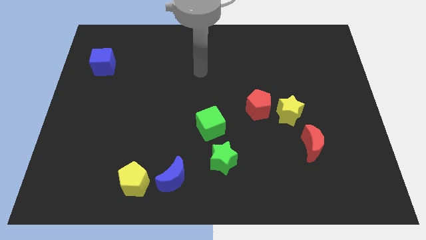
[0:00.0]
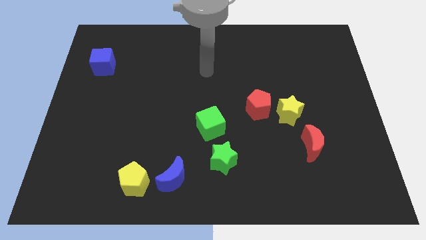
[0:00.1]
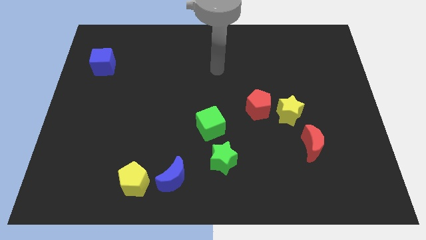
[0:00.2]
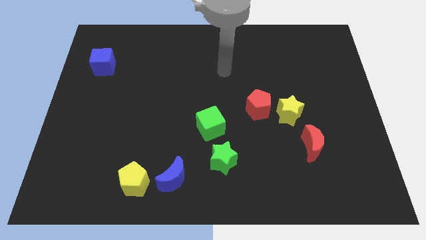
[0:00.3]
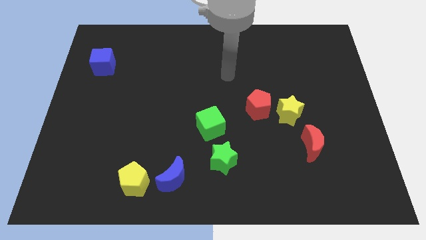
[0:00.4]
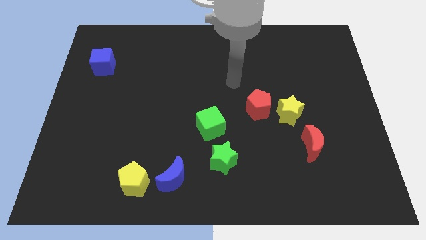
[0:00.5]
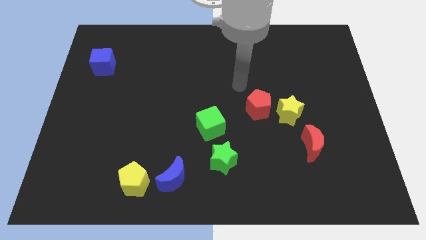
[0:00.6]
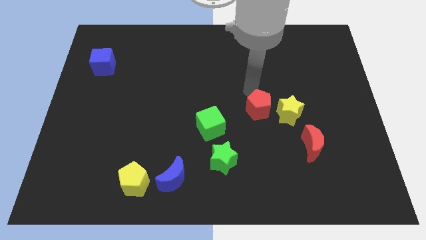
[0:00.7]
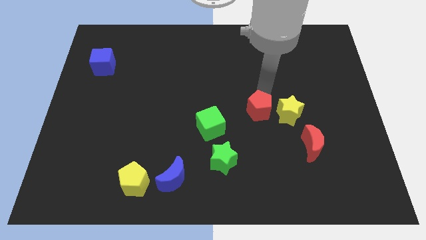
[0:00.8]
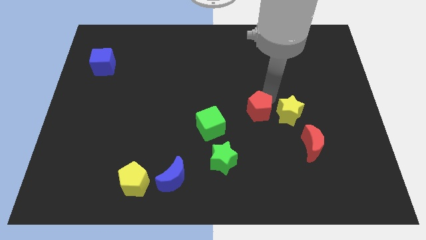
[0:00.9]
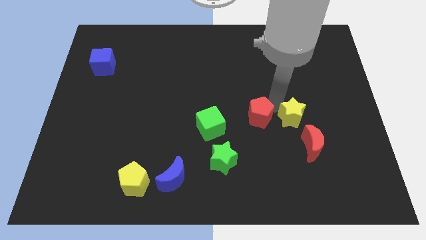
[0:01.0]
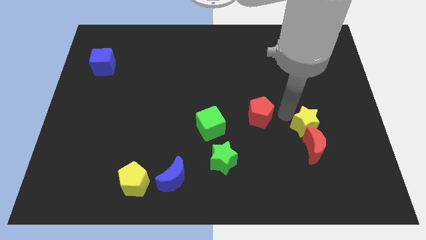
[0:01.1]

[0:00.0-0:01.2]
pull the red pentagon apart from the yellow star

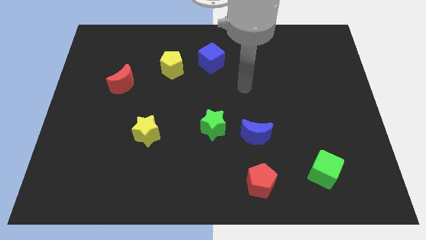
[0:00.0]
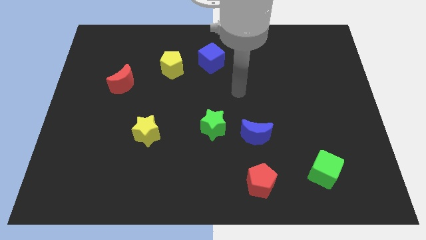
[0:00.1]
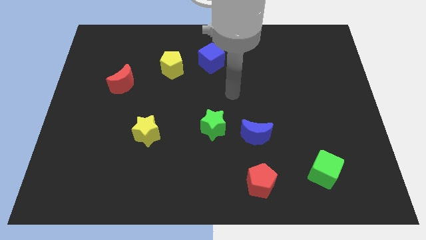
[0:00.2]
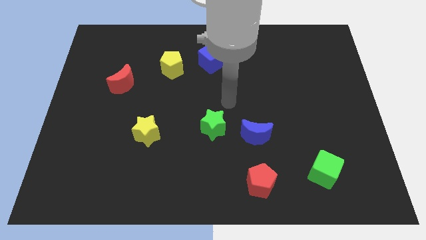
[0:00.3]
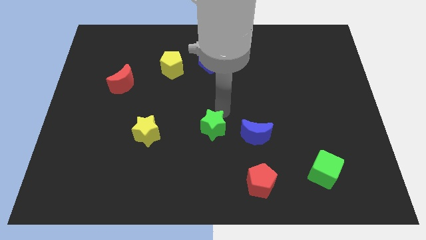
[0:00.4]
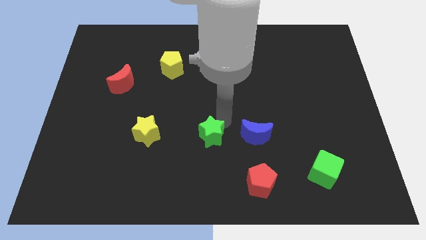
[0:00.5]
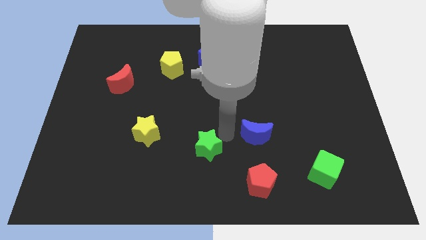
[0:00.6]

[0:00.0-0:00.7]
separate the blue moon from the green star

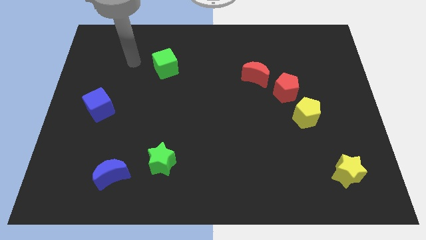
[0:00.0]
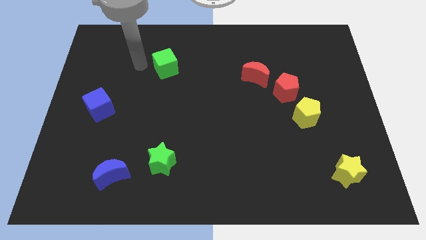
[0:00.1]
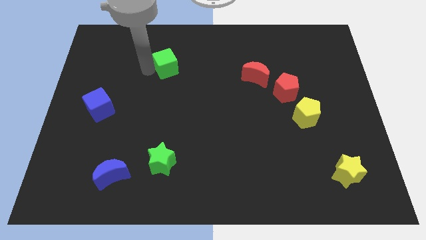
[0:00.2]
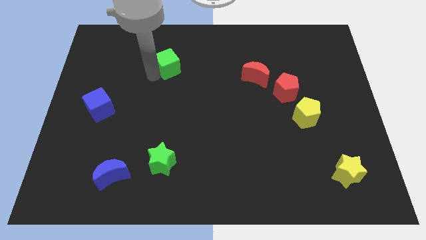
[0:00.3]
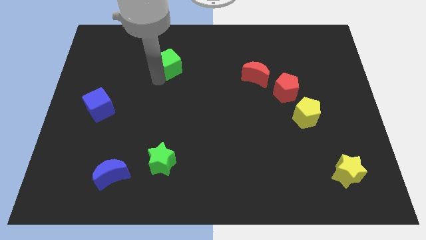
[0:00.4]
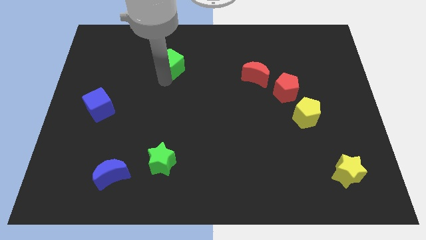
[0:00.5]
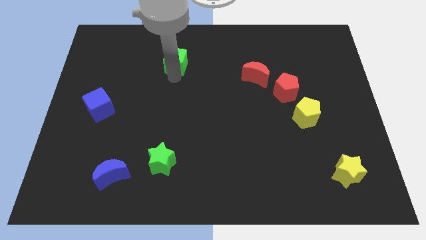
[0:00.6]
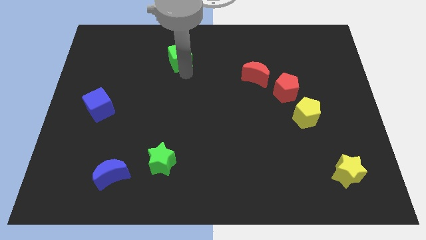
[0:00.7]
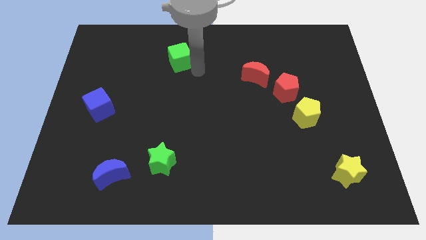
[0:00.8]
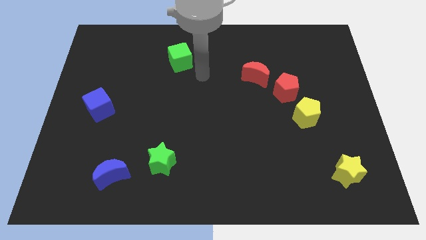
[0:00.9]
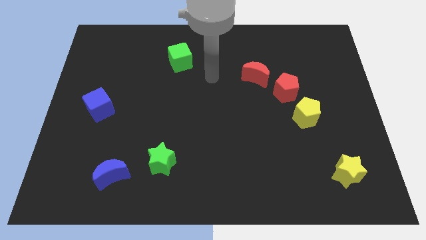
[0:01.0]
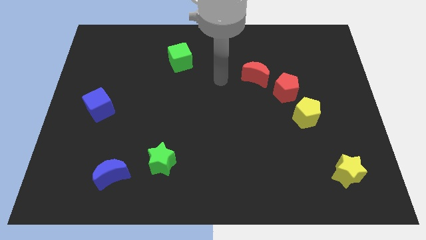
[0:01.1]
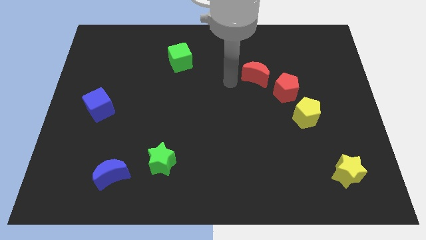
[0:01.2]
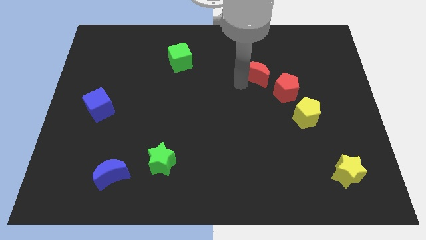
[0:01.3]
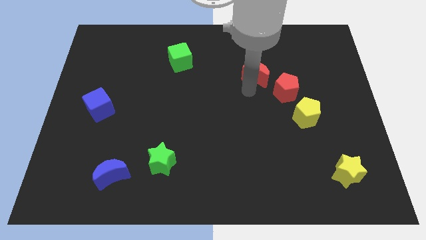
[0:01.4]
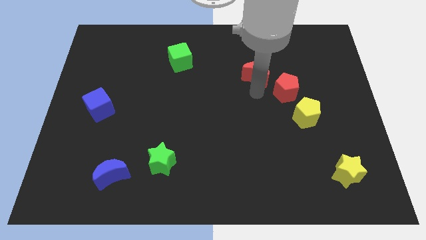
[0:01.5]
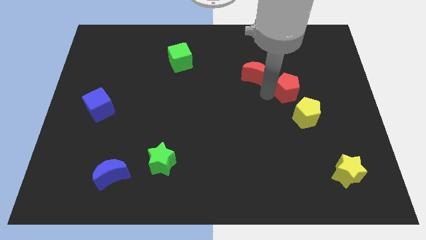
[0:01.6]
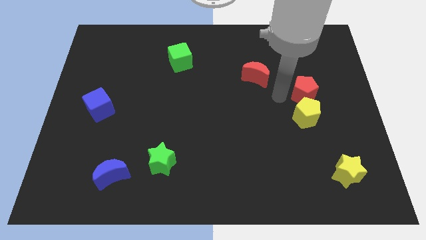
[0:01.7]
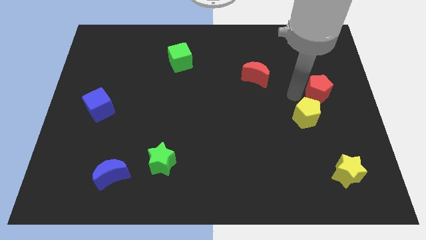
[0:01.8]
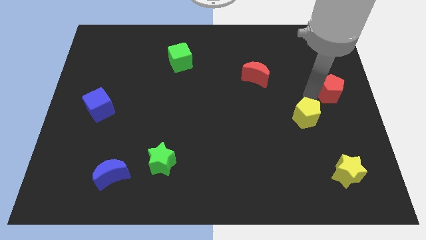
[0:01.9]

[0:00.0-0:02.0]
separate the yellow pentagon from the red pentagon

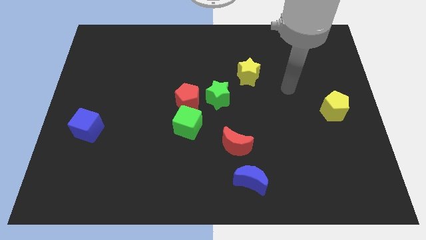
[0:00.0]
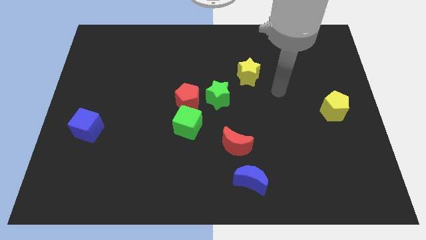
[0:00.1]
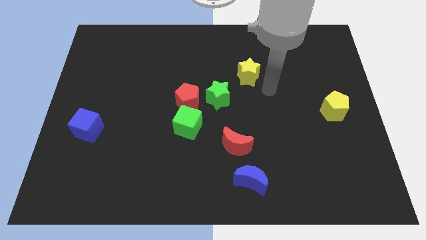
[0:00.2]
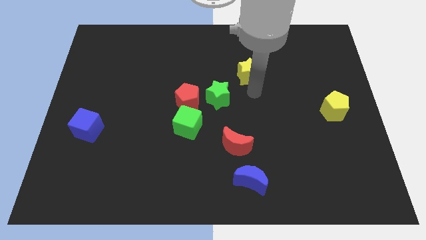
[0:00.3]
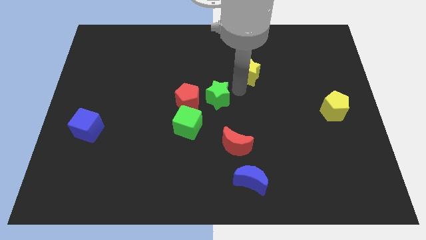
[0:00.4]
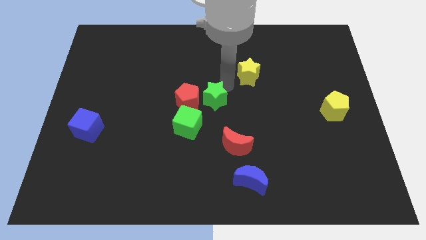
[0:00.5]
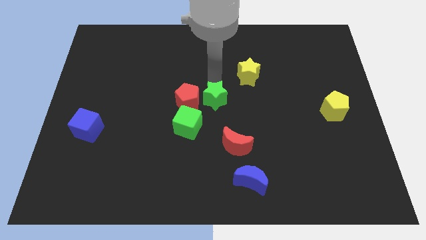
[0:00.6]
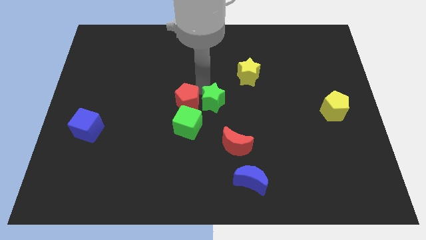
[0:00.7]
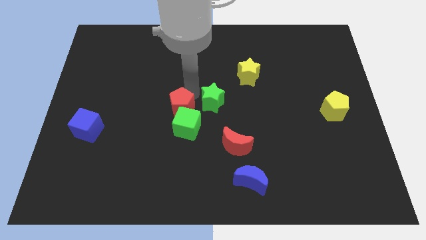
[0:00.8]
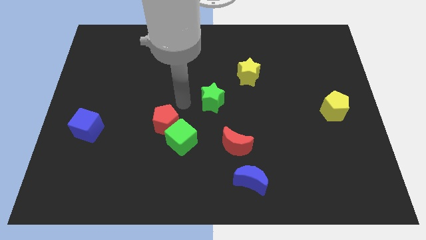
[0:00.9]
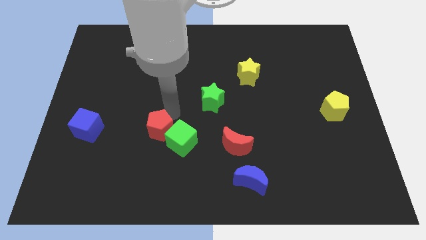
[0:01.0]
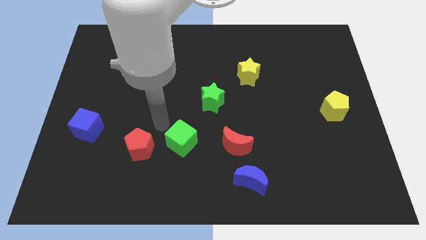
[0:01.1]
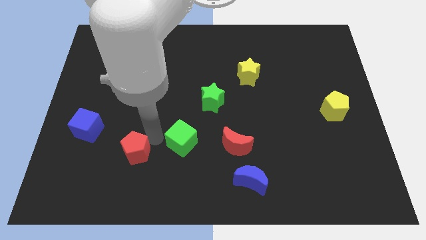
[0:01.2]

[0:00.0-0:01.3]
move the green cube away from the red pentagon

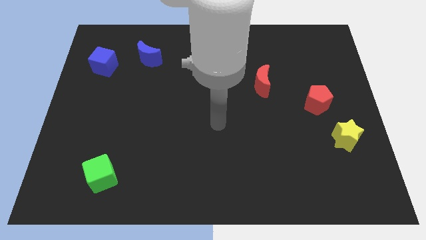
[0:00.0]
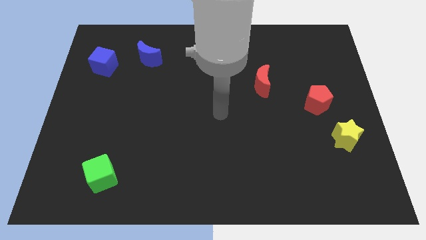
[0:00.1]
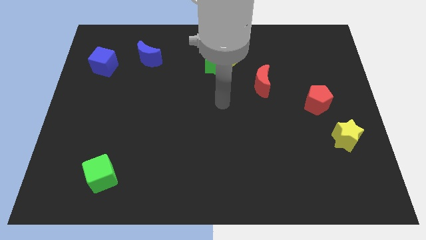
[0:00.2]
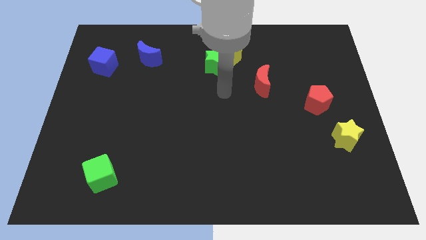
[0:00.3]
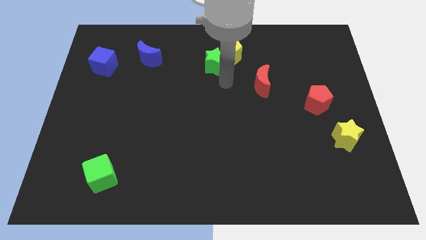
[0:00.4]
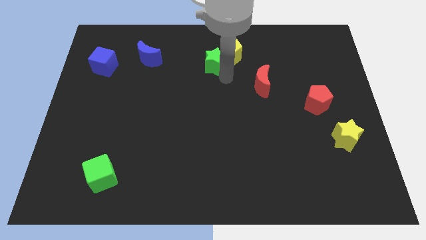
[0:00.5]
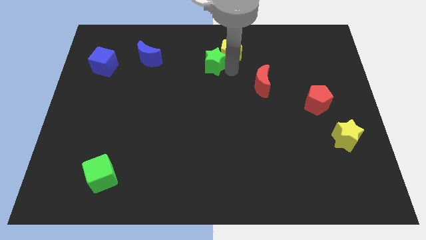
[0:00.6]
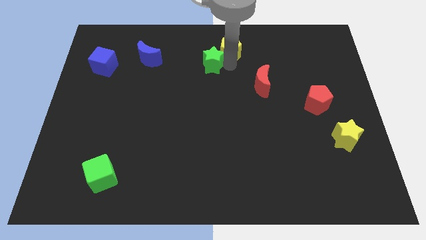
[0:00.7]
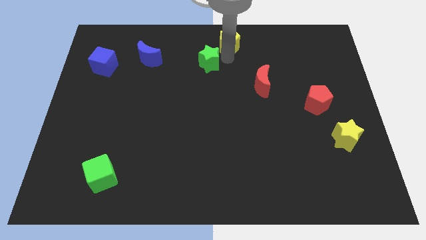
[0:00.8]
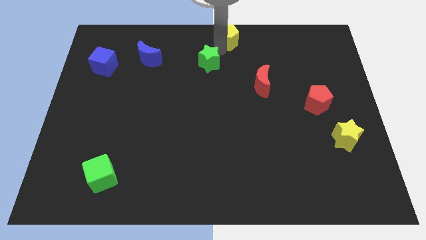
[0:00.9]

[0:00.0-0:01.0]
move the green star away from the yellow pentagon

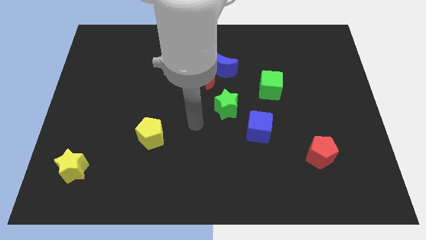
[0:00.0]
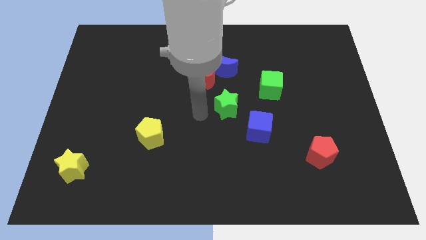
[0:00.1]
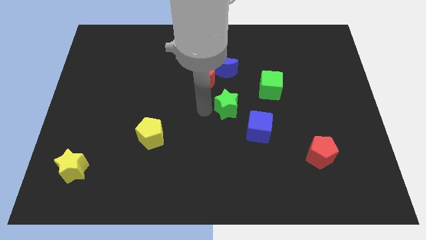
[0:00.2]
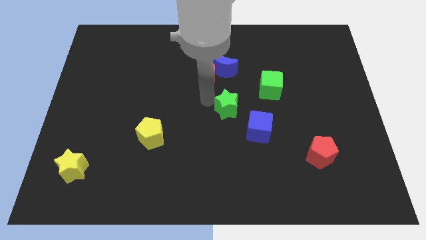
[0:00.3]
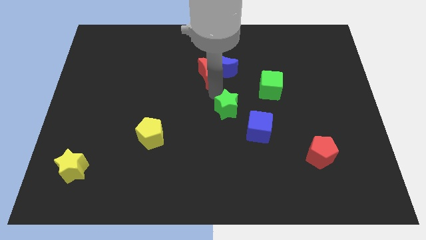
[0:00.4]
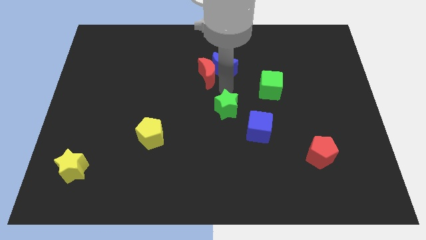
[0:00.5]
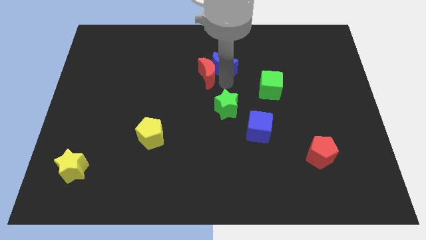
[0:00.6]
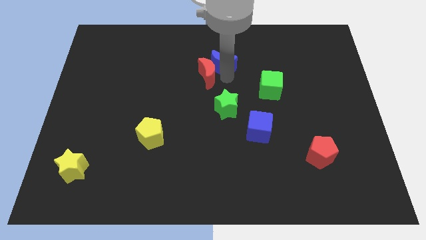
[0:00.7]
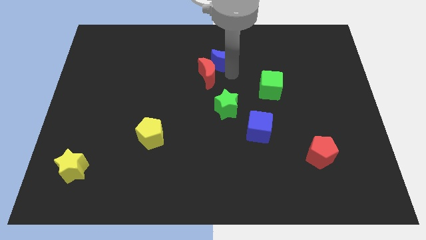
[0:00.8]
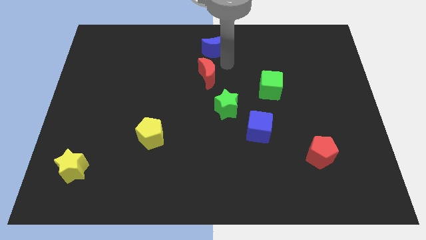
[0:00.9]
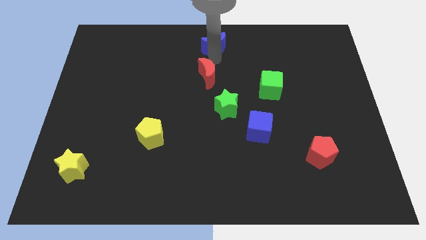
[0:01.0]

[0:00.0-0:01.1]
pull the red moon apart from the blue moon

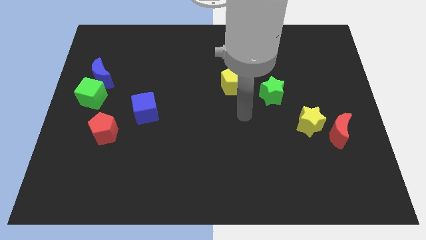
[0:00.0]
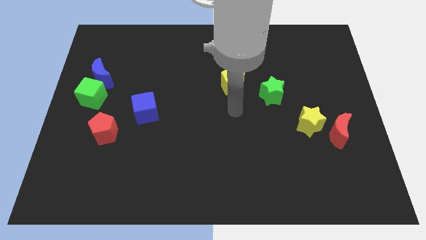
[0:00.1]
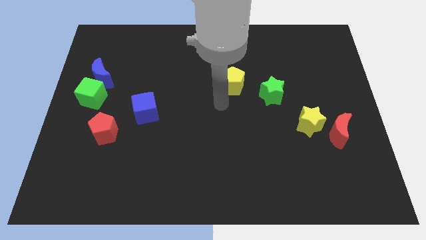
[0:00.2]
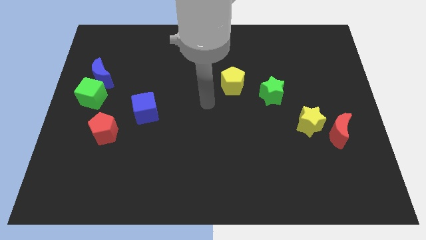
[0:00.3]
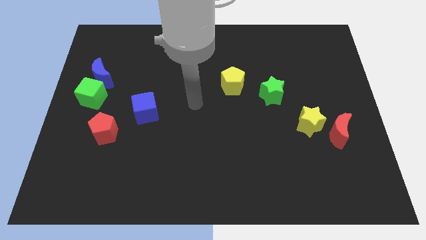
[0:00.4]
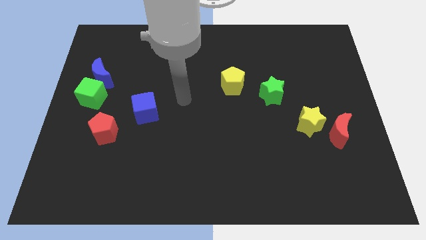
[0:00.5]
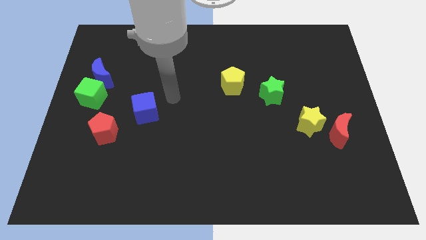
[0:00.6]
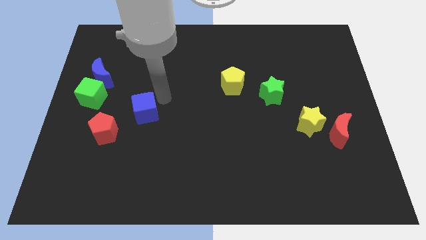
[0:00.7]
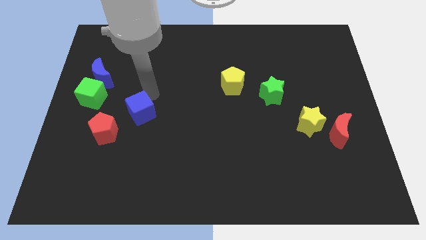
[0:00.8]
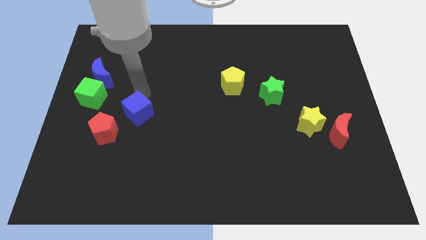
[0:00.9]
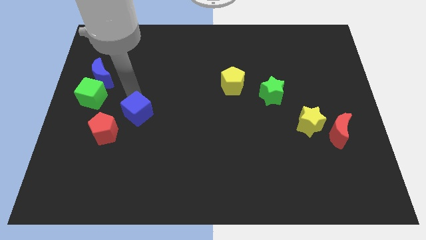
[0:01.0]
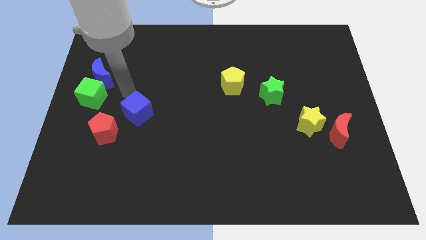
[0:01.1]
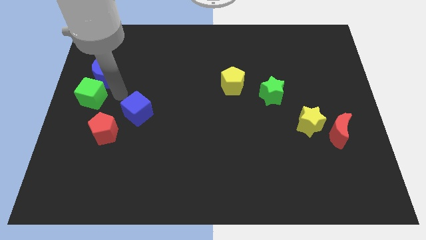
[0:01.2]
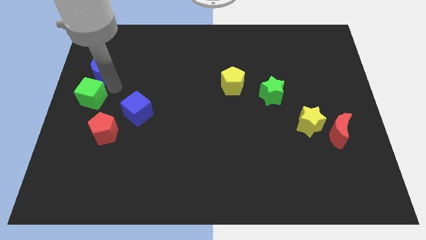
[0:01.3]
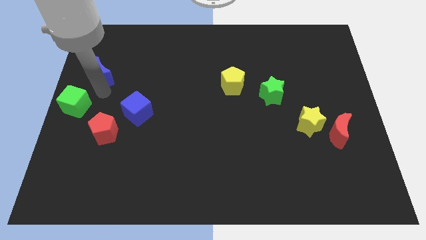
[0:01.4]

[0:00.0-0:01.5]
pull the blue moon apart from the green cube

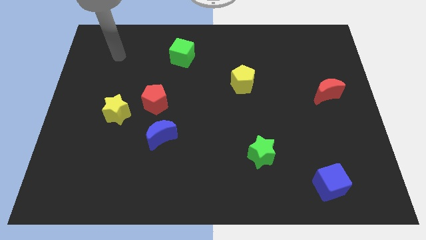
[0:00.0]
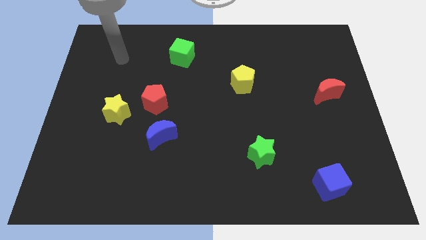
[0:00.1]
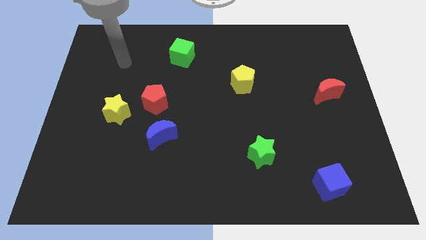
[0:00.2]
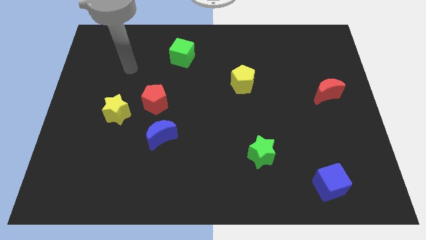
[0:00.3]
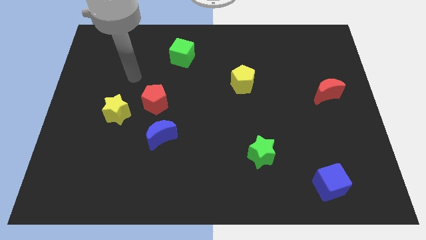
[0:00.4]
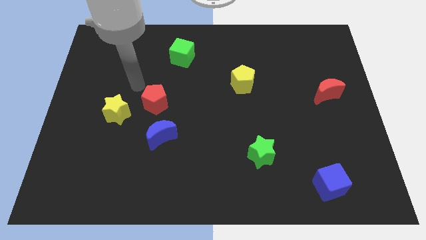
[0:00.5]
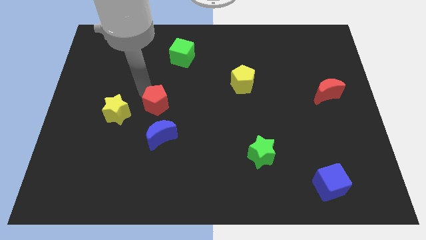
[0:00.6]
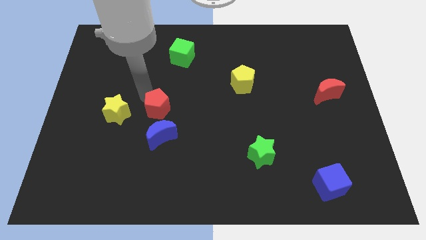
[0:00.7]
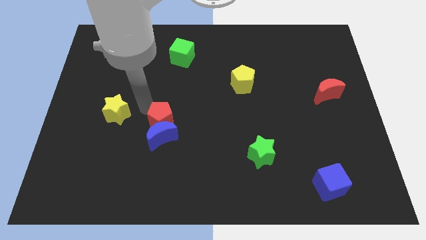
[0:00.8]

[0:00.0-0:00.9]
move the yellow star away from the red pentagon
